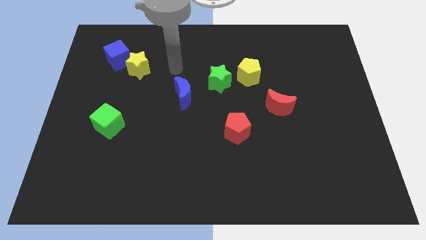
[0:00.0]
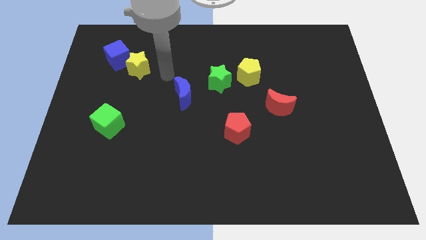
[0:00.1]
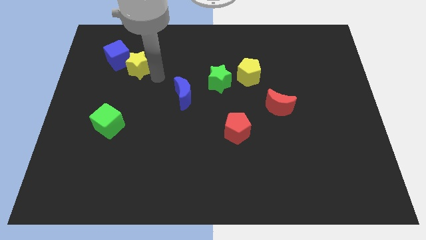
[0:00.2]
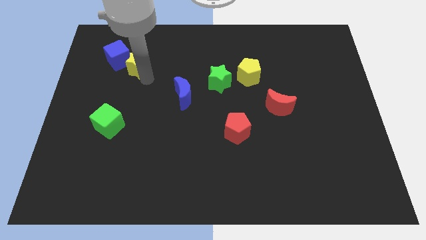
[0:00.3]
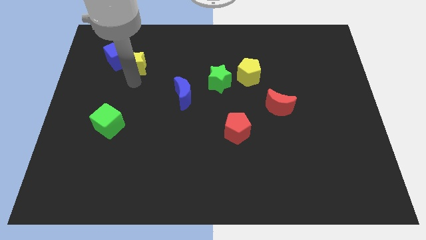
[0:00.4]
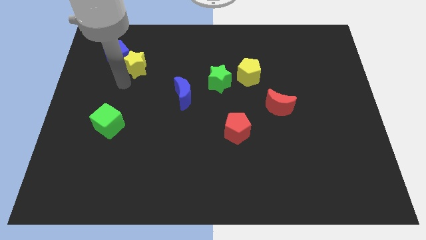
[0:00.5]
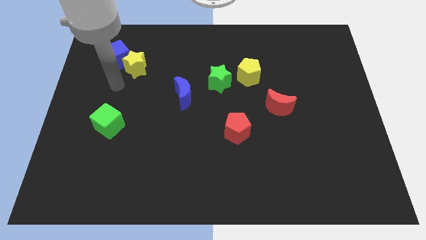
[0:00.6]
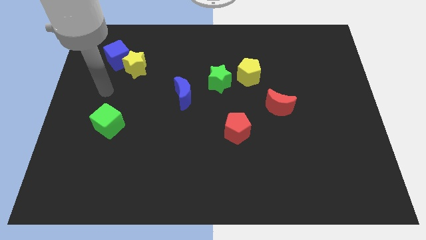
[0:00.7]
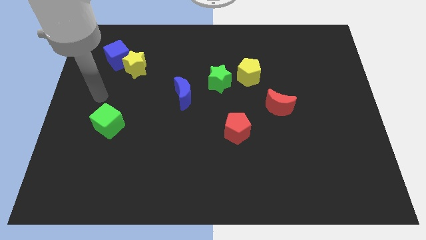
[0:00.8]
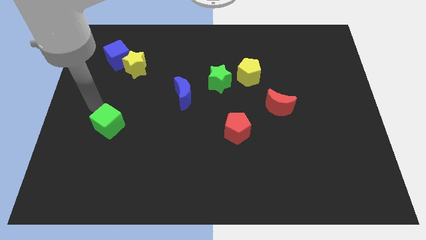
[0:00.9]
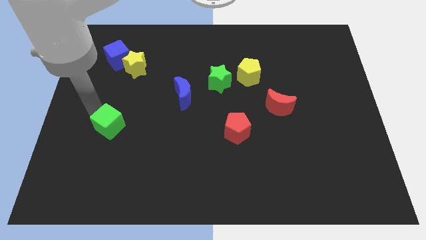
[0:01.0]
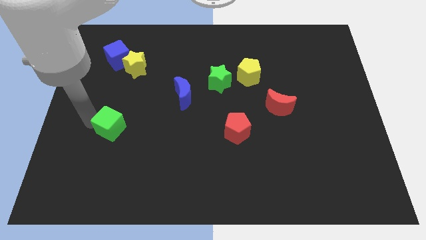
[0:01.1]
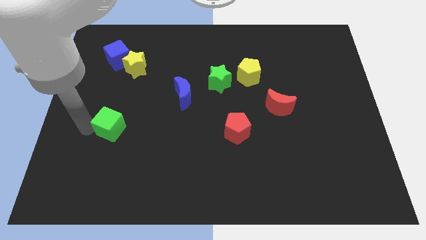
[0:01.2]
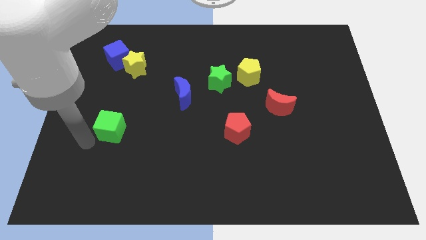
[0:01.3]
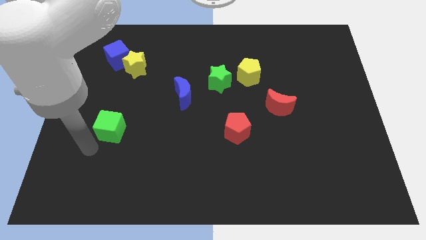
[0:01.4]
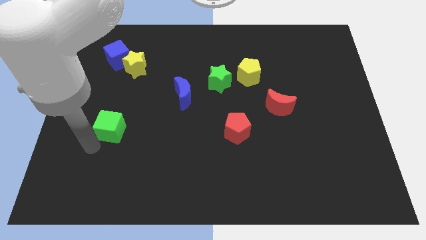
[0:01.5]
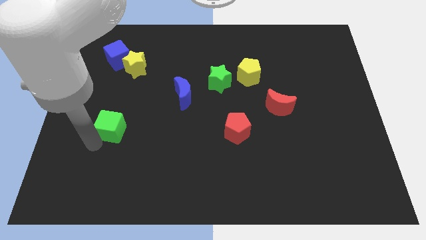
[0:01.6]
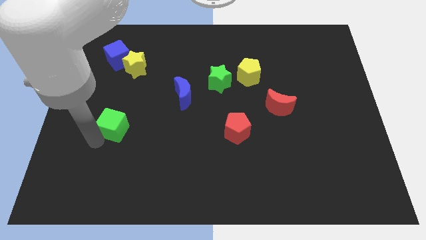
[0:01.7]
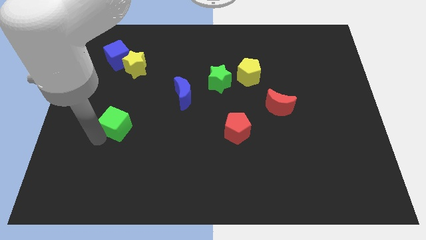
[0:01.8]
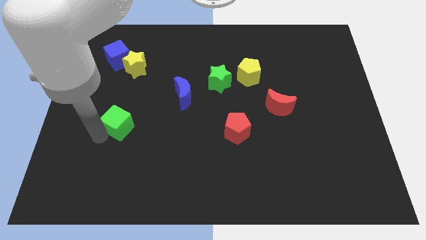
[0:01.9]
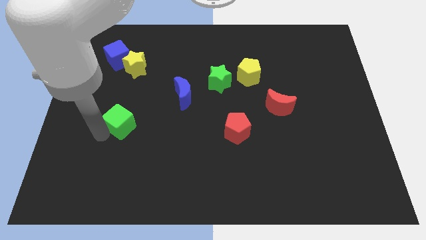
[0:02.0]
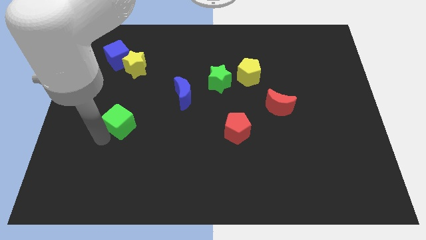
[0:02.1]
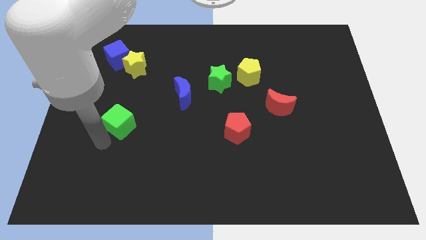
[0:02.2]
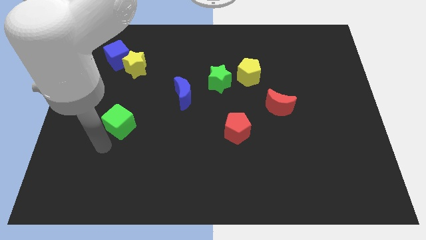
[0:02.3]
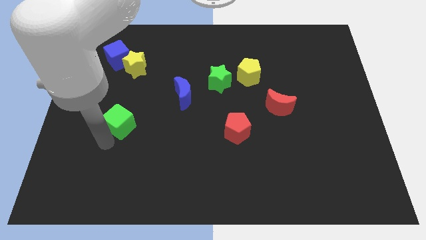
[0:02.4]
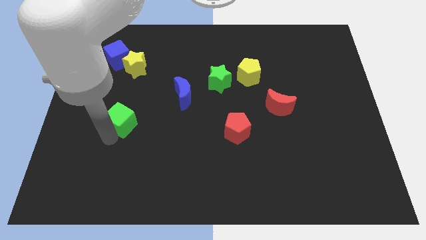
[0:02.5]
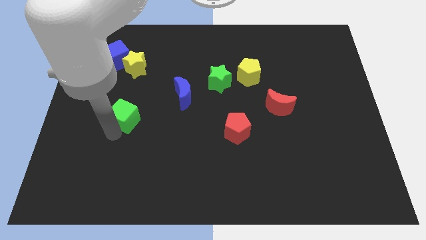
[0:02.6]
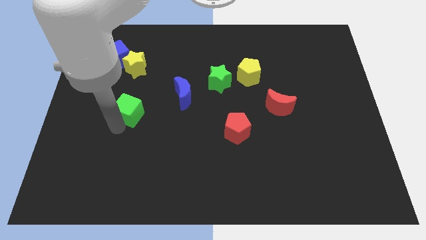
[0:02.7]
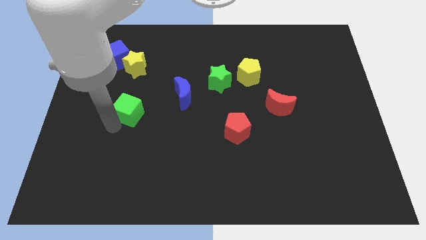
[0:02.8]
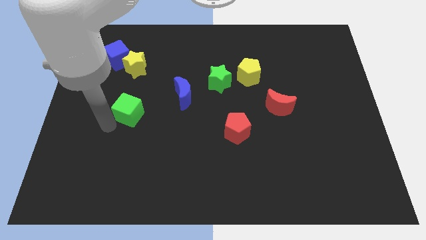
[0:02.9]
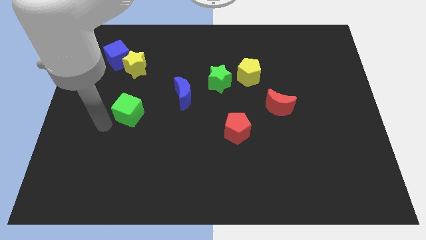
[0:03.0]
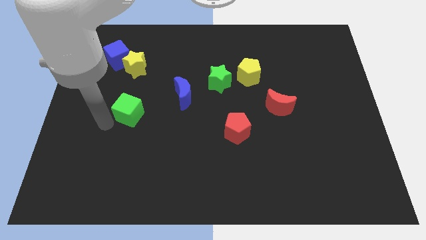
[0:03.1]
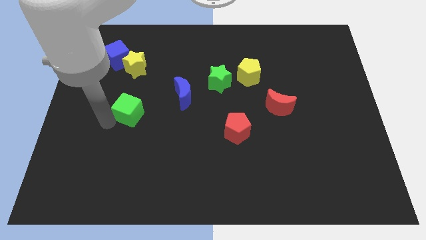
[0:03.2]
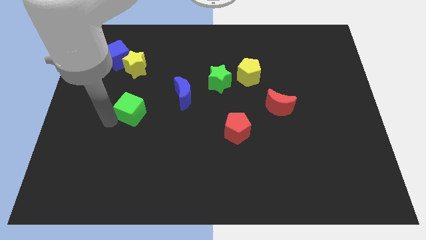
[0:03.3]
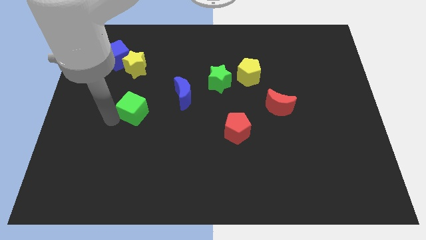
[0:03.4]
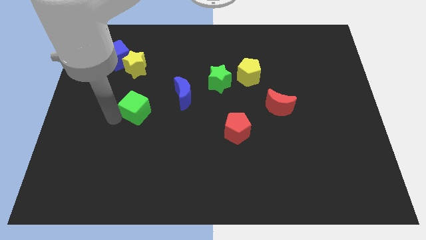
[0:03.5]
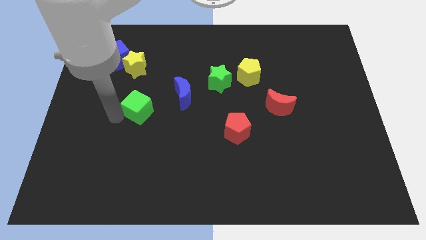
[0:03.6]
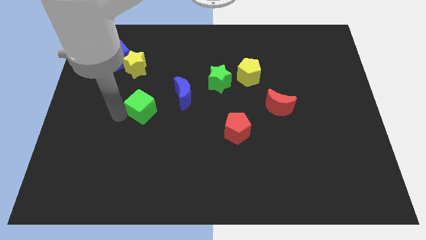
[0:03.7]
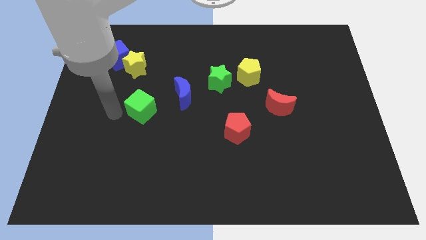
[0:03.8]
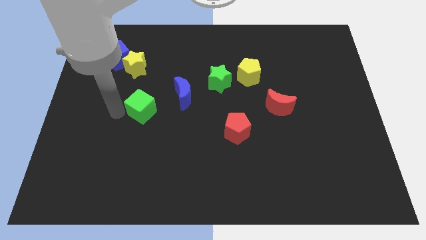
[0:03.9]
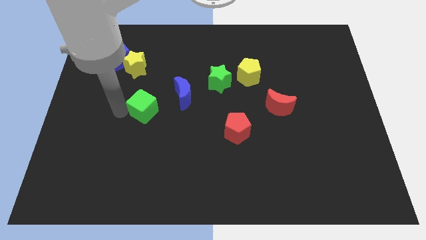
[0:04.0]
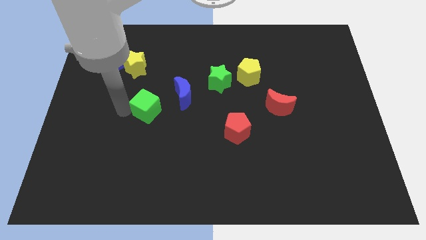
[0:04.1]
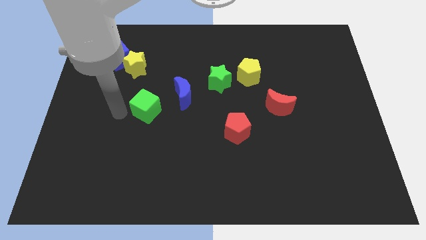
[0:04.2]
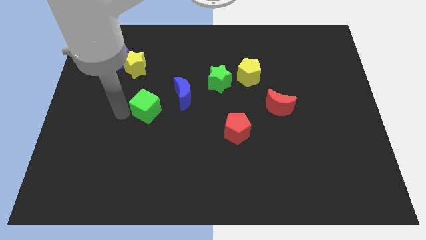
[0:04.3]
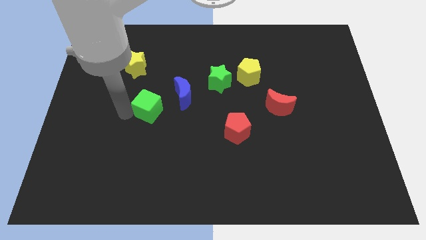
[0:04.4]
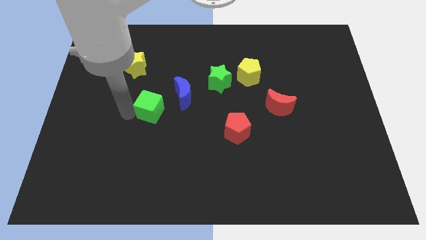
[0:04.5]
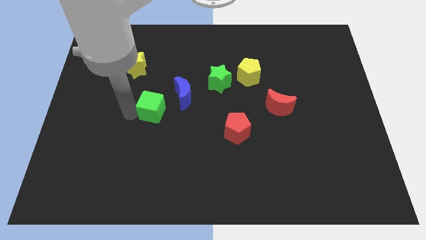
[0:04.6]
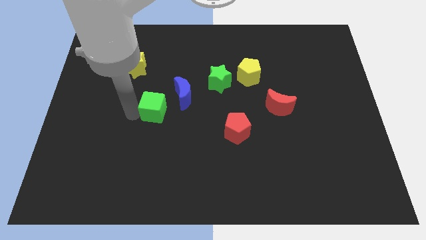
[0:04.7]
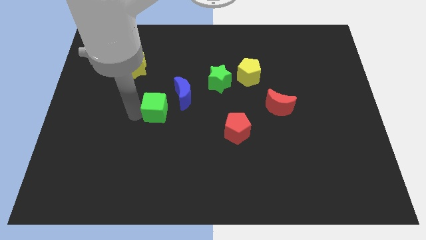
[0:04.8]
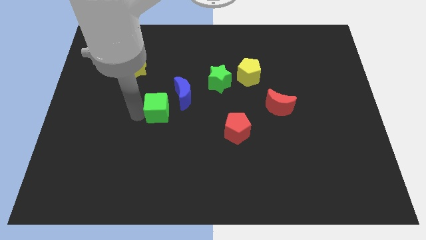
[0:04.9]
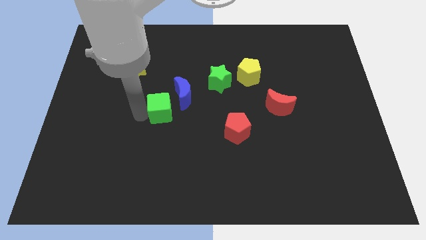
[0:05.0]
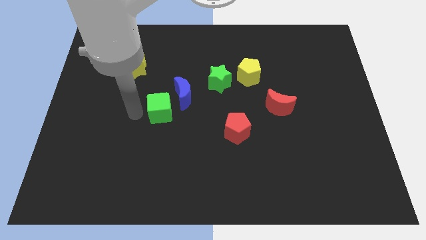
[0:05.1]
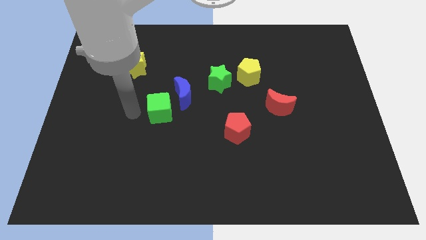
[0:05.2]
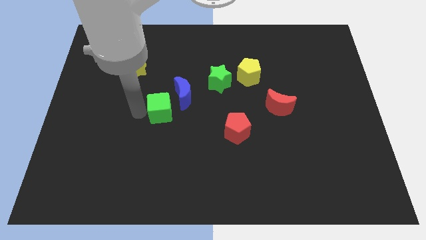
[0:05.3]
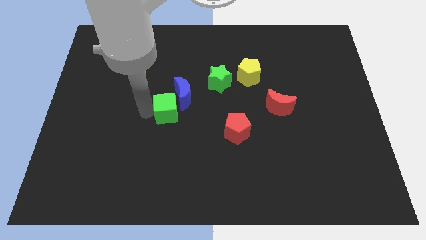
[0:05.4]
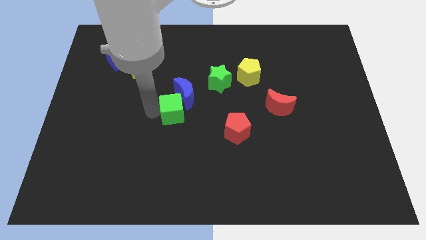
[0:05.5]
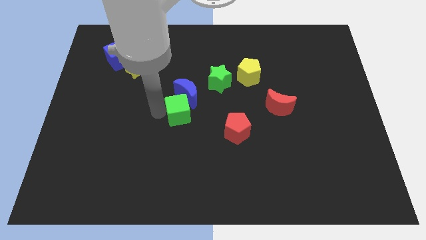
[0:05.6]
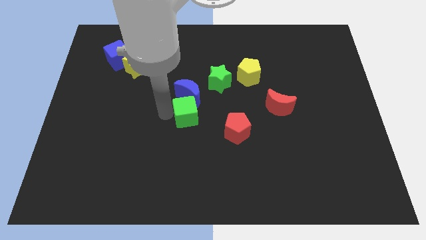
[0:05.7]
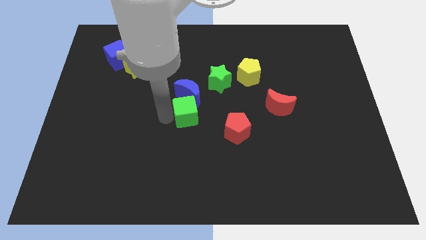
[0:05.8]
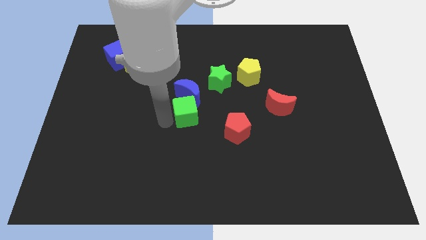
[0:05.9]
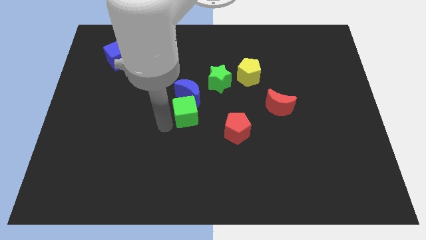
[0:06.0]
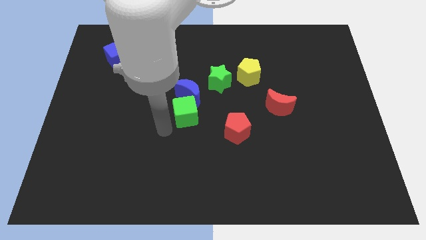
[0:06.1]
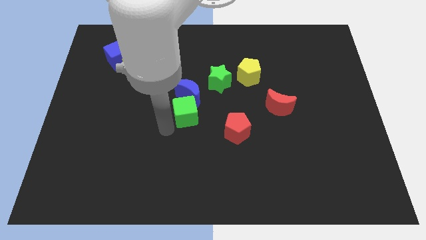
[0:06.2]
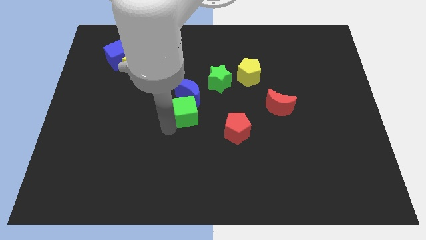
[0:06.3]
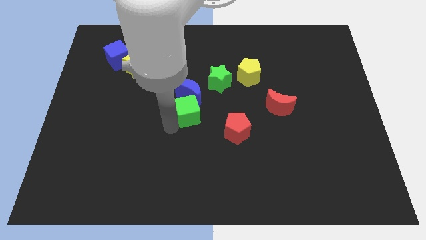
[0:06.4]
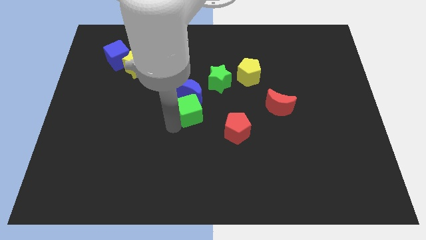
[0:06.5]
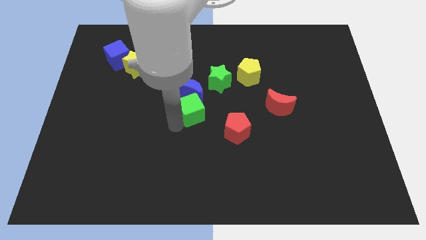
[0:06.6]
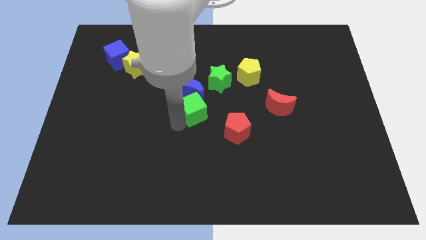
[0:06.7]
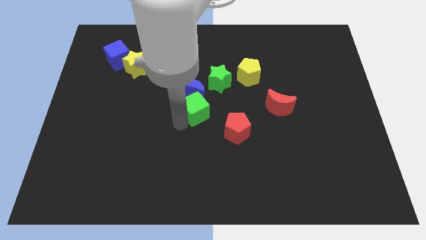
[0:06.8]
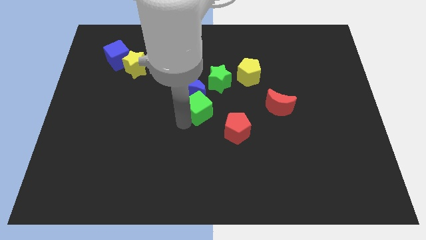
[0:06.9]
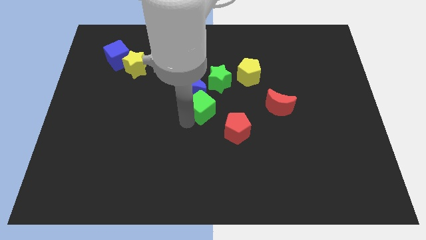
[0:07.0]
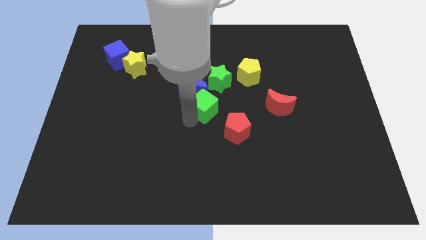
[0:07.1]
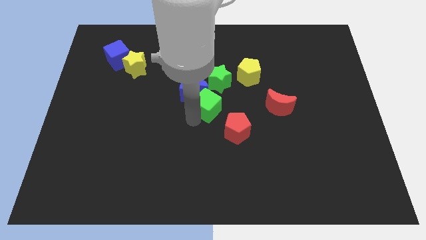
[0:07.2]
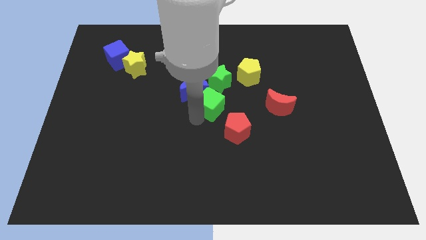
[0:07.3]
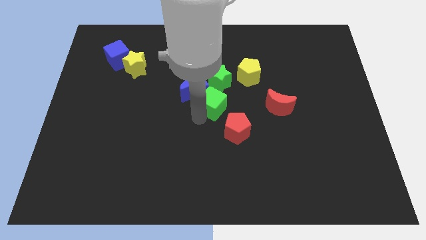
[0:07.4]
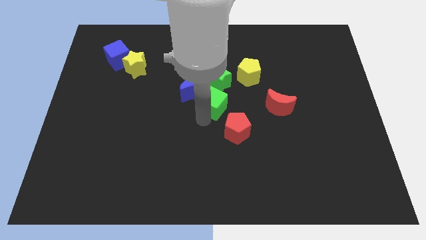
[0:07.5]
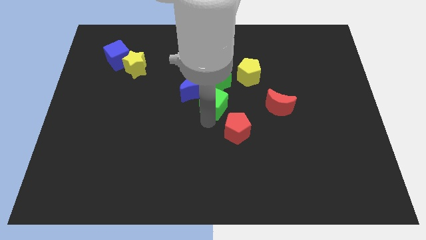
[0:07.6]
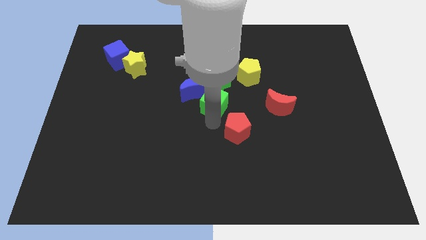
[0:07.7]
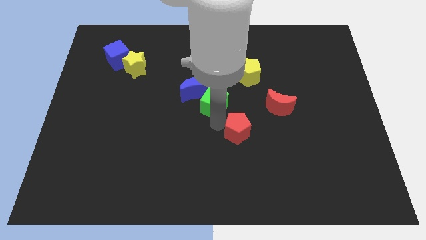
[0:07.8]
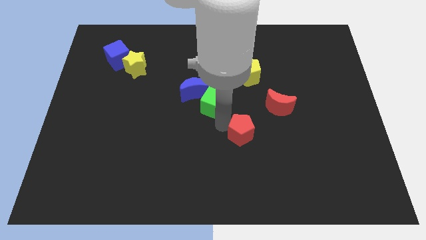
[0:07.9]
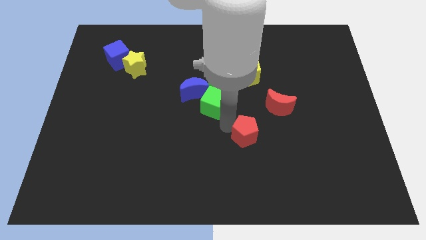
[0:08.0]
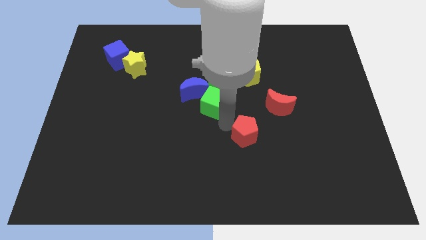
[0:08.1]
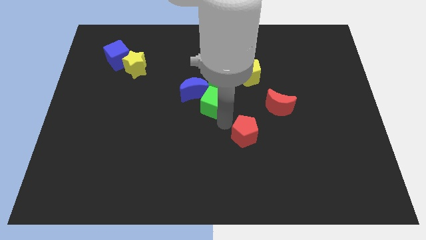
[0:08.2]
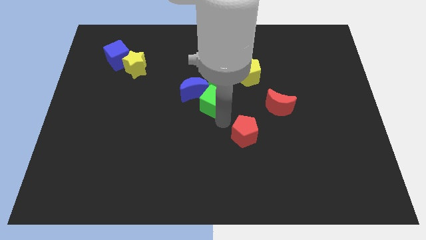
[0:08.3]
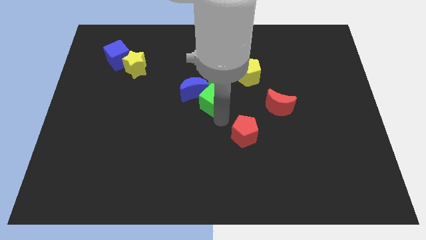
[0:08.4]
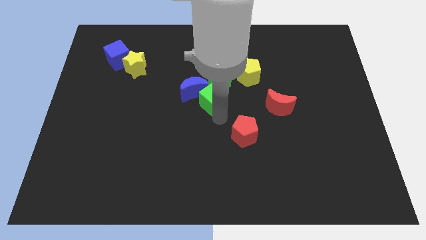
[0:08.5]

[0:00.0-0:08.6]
move the green cube to the green star
